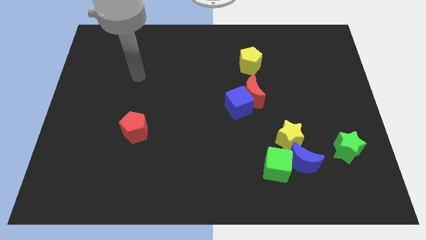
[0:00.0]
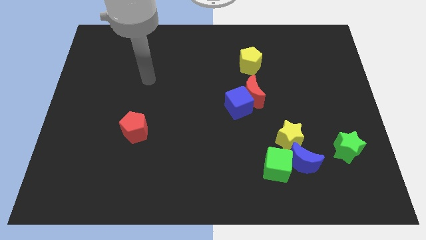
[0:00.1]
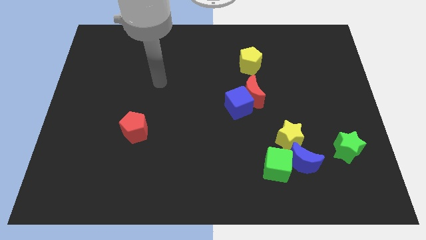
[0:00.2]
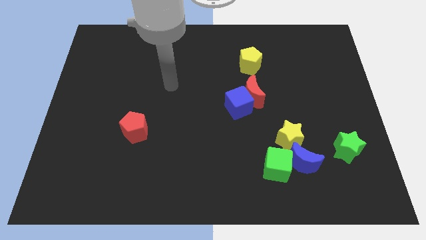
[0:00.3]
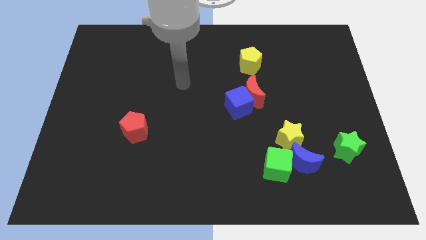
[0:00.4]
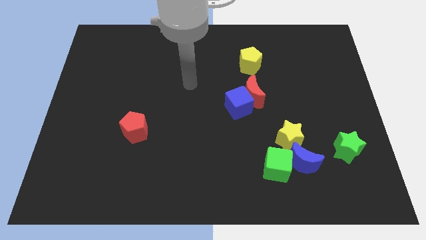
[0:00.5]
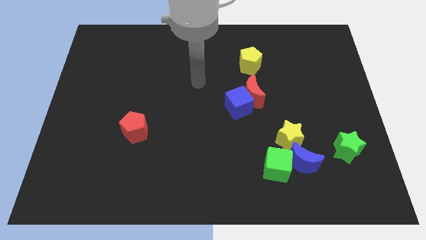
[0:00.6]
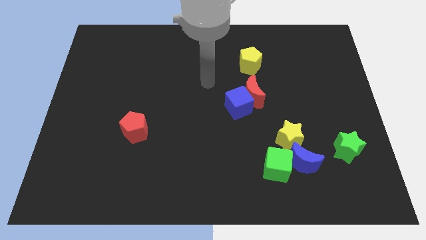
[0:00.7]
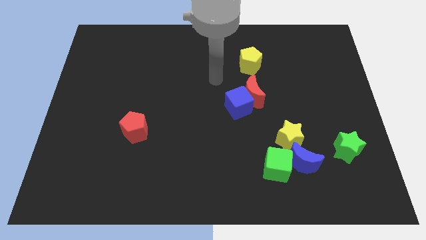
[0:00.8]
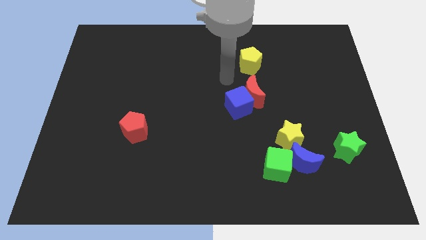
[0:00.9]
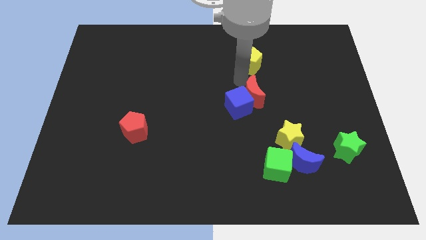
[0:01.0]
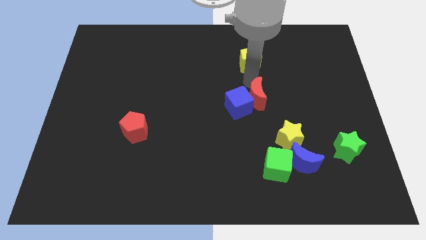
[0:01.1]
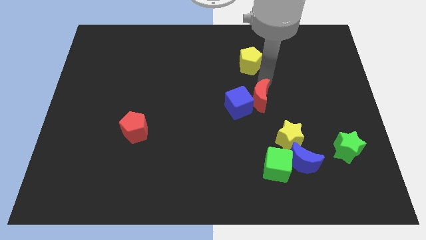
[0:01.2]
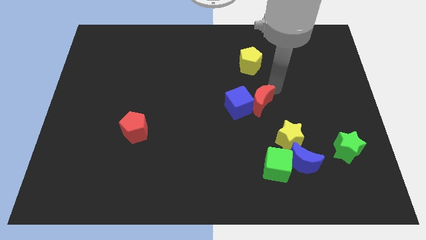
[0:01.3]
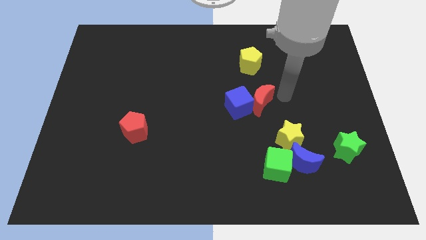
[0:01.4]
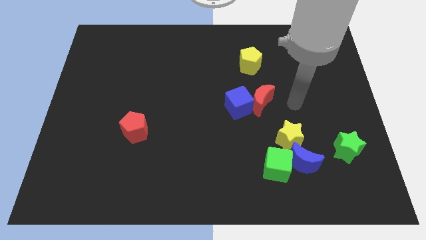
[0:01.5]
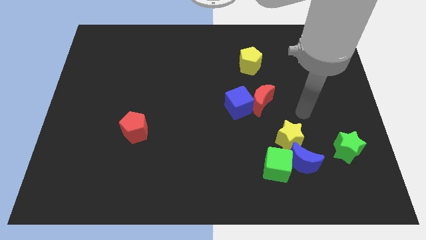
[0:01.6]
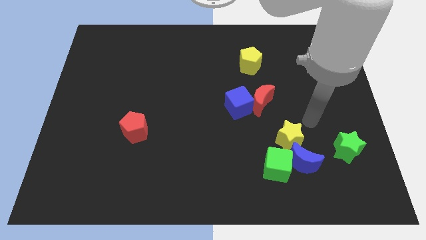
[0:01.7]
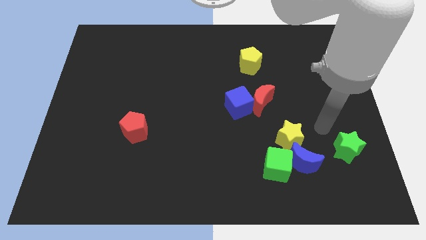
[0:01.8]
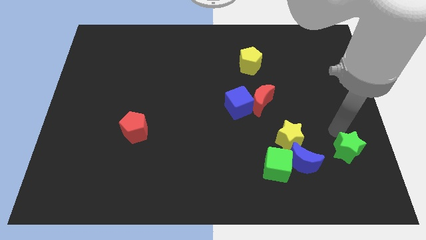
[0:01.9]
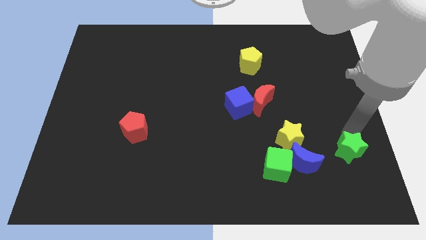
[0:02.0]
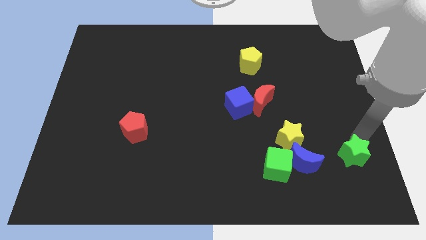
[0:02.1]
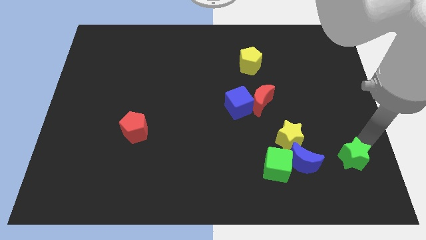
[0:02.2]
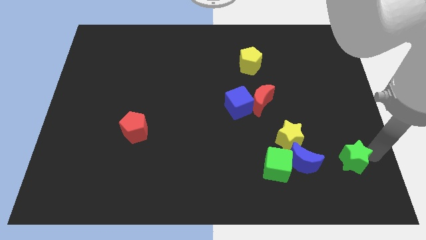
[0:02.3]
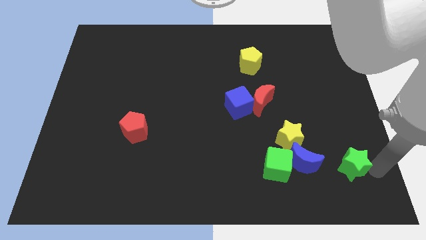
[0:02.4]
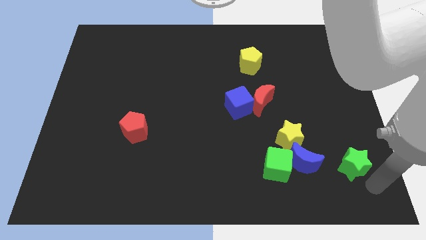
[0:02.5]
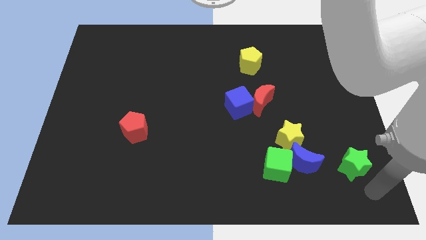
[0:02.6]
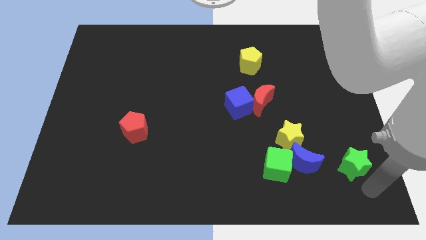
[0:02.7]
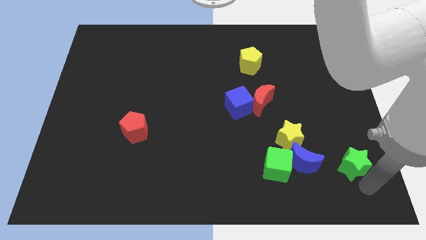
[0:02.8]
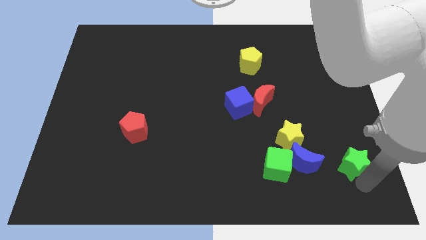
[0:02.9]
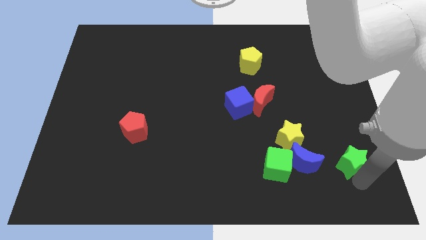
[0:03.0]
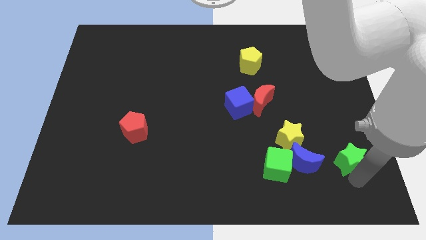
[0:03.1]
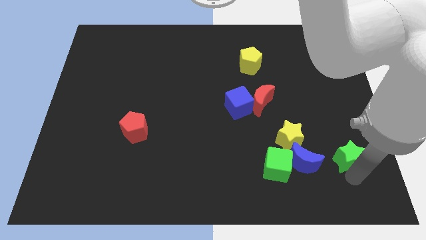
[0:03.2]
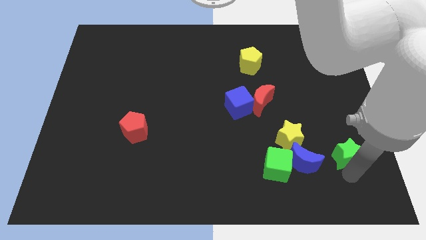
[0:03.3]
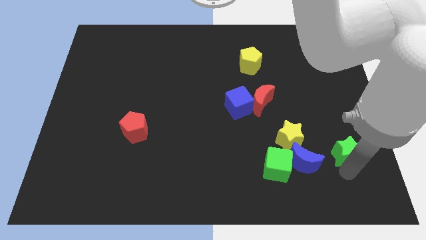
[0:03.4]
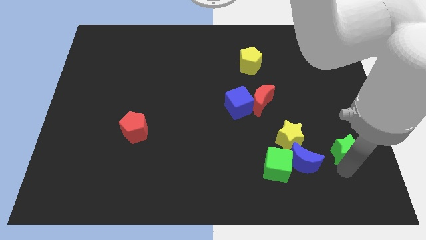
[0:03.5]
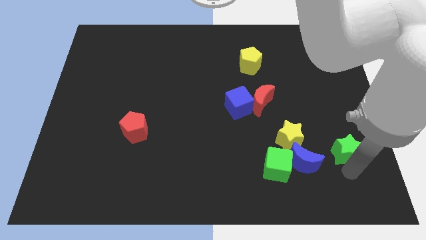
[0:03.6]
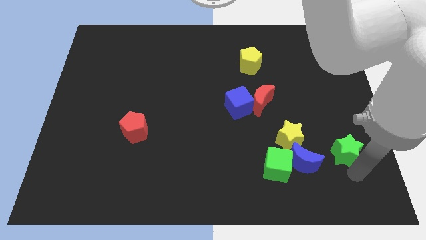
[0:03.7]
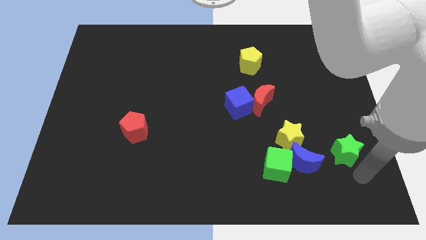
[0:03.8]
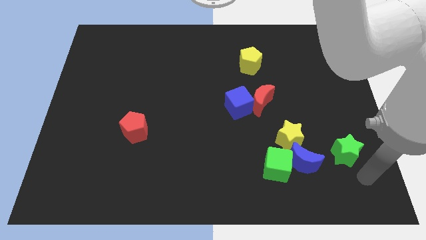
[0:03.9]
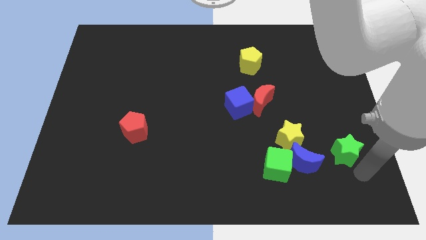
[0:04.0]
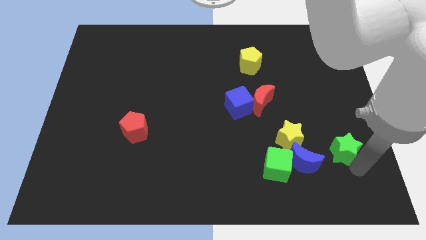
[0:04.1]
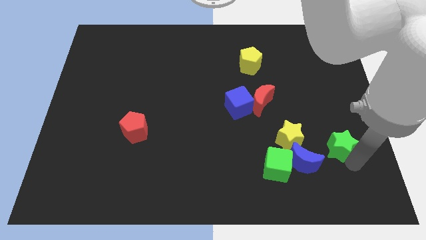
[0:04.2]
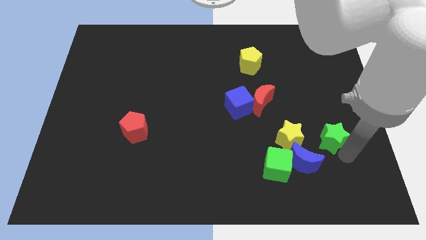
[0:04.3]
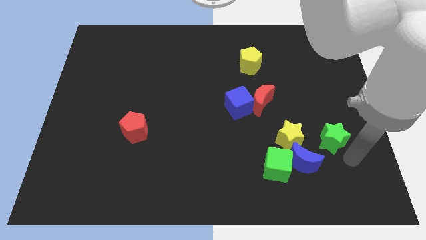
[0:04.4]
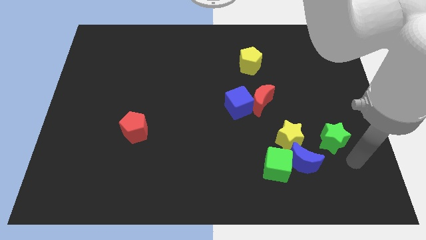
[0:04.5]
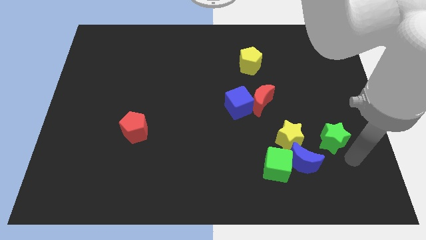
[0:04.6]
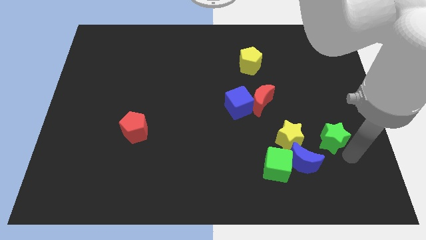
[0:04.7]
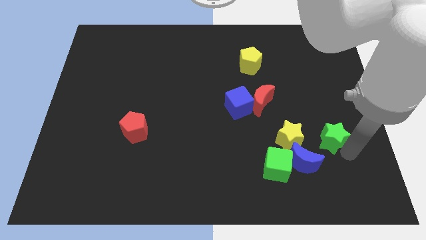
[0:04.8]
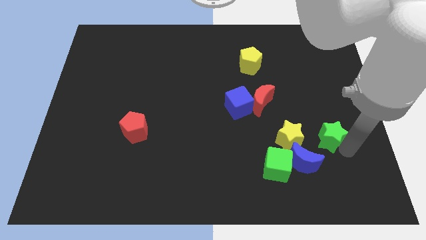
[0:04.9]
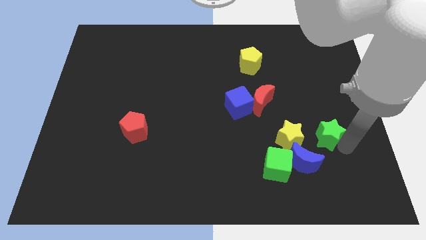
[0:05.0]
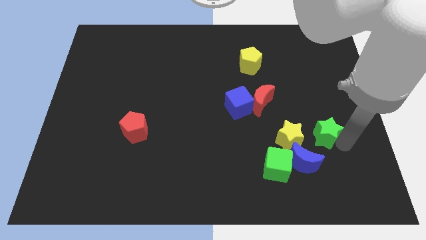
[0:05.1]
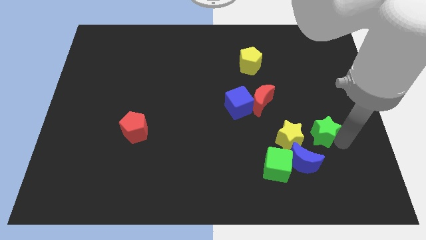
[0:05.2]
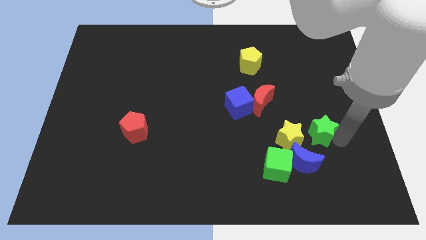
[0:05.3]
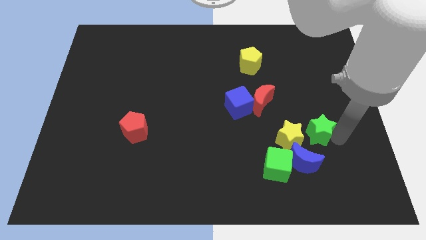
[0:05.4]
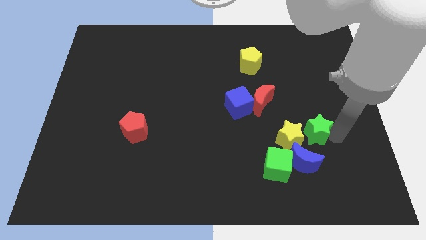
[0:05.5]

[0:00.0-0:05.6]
slightly slide the green star up and to the left diagonally

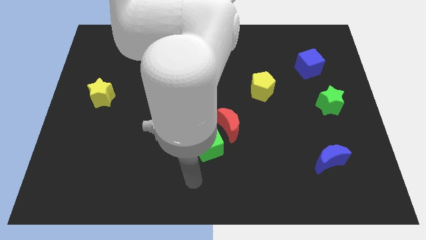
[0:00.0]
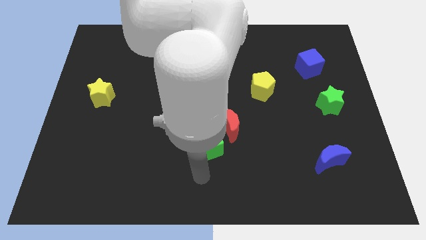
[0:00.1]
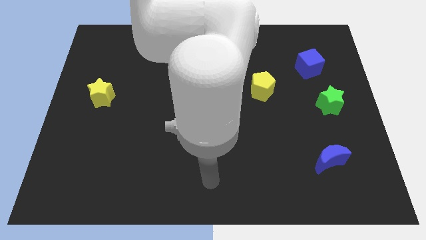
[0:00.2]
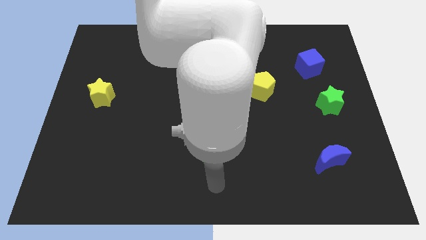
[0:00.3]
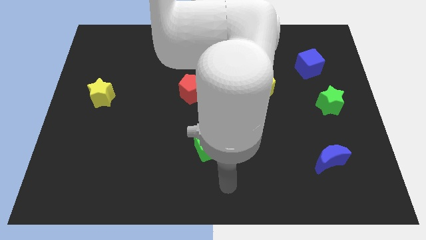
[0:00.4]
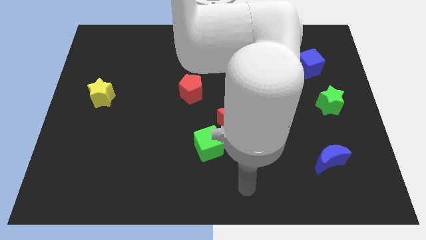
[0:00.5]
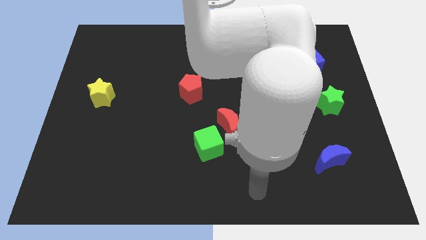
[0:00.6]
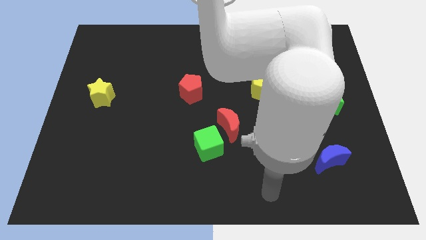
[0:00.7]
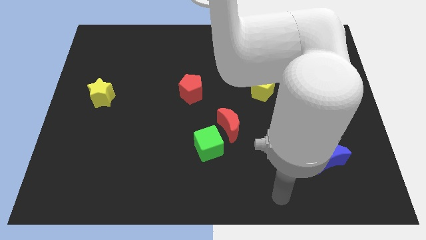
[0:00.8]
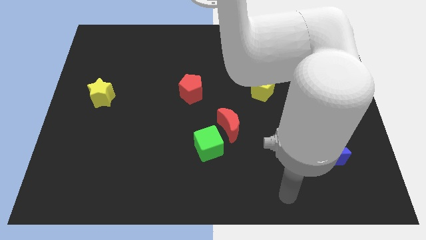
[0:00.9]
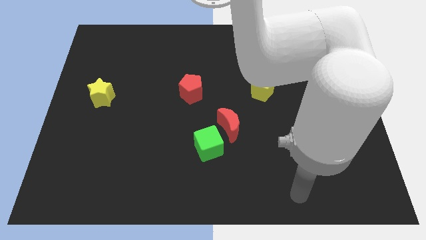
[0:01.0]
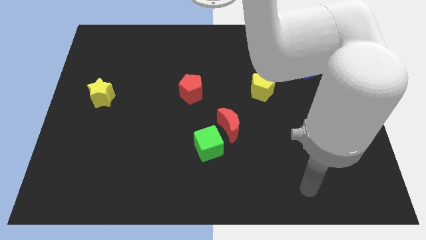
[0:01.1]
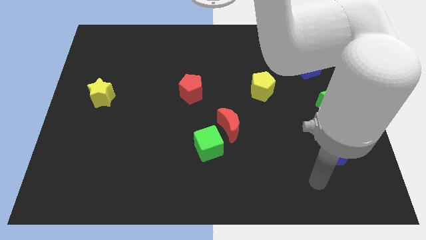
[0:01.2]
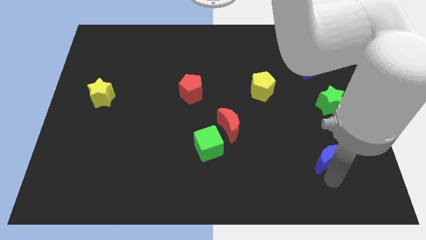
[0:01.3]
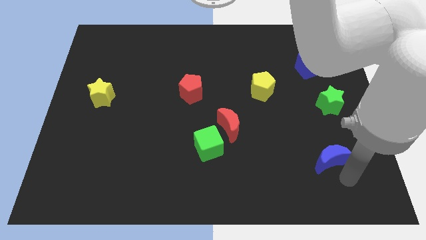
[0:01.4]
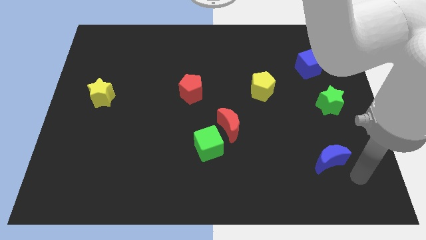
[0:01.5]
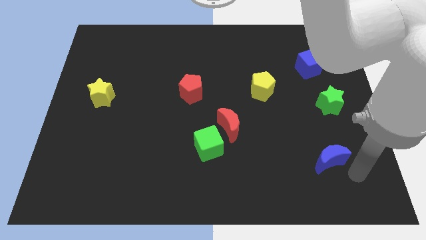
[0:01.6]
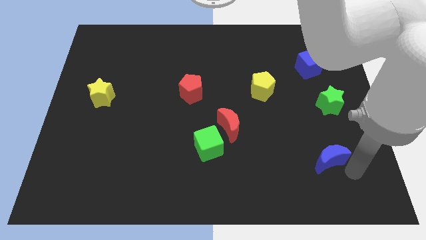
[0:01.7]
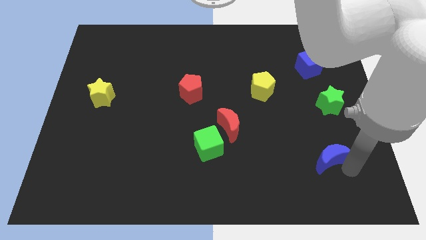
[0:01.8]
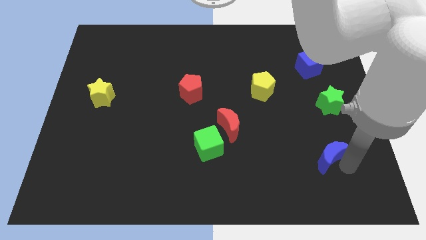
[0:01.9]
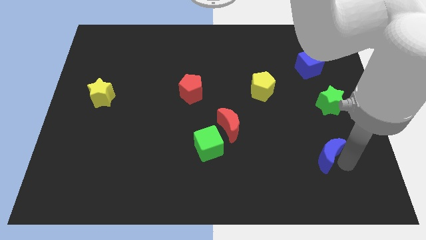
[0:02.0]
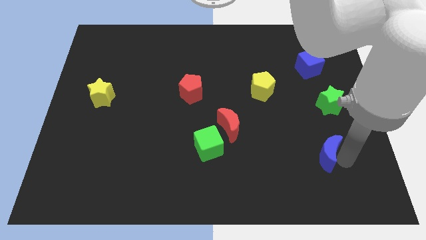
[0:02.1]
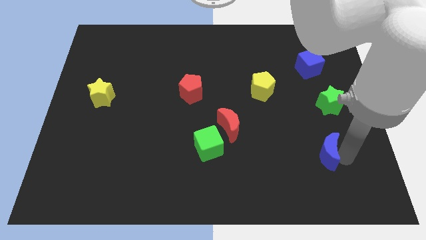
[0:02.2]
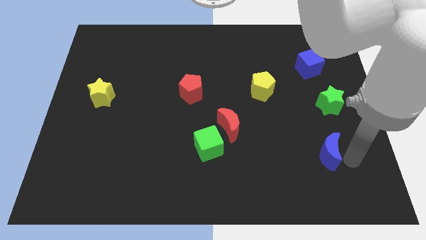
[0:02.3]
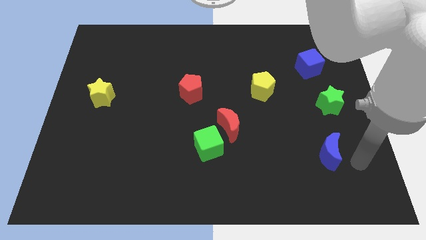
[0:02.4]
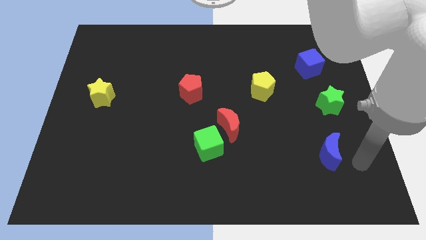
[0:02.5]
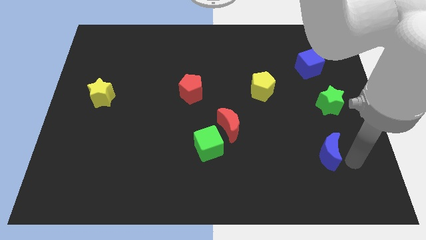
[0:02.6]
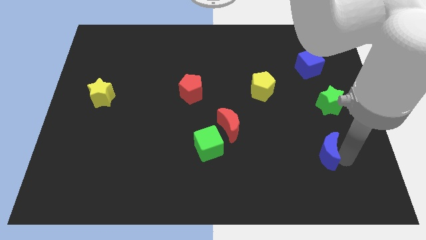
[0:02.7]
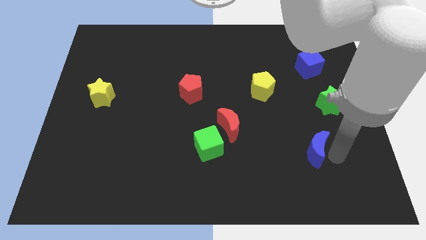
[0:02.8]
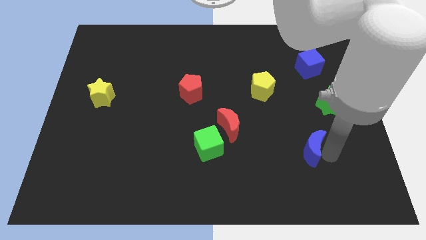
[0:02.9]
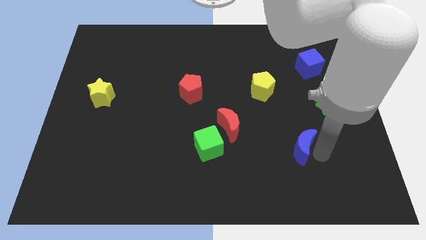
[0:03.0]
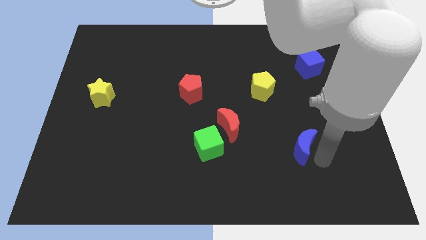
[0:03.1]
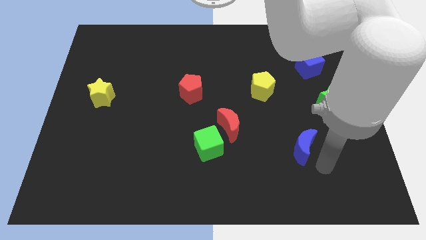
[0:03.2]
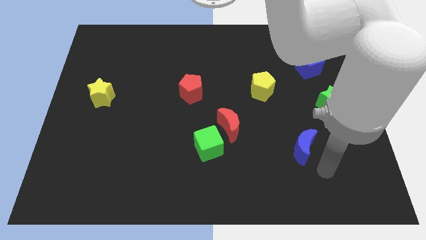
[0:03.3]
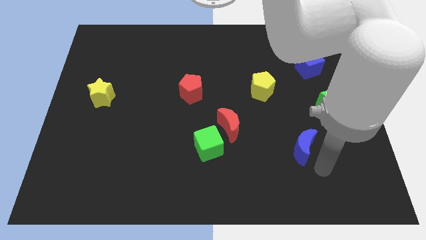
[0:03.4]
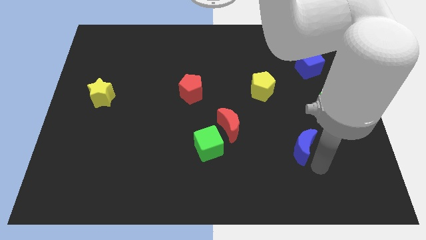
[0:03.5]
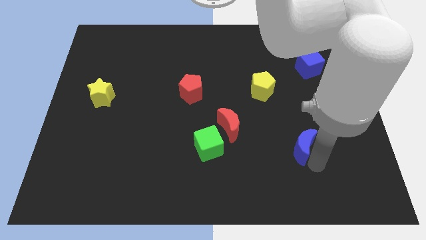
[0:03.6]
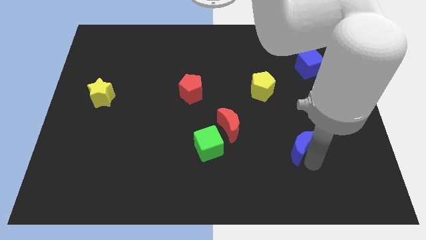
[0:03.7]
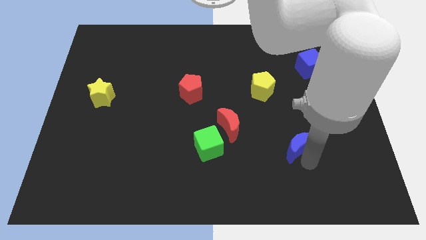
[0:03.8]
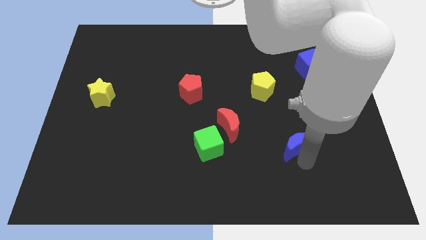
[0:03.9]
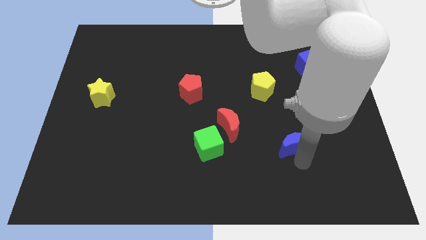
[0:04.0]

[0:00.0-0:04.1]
move the blue moon slightly up and to the left diagonally
